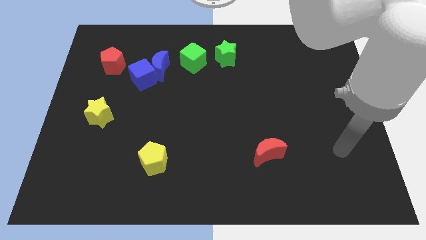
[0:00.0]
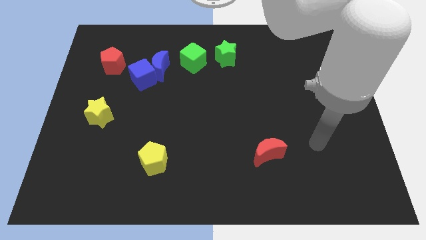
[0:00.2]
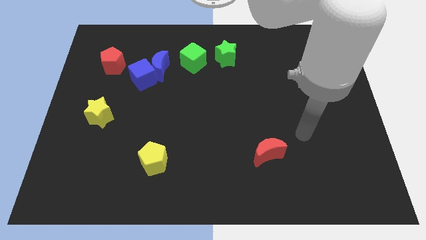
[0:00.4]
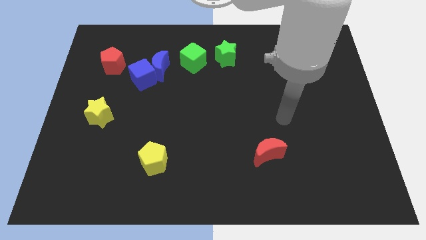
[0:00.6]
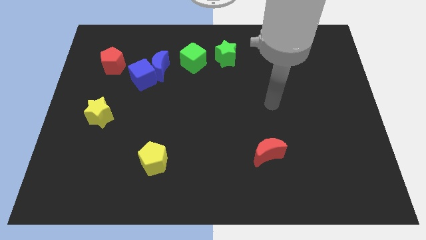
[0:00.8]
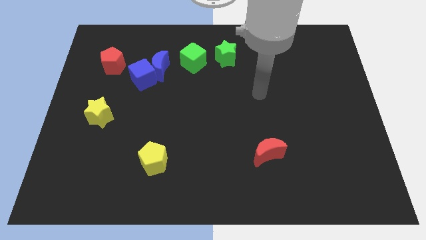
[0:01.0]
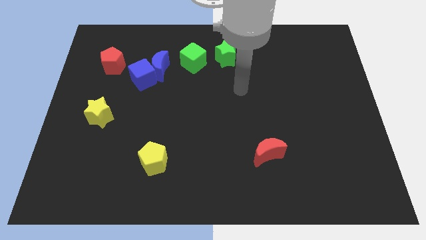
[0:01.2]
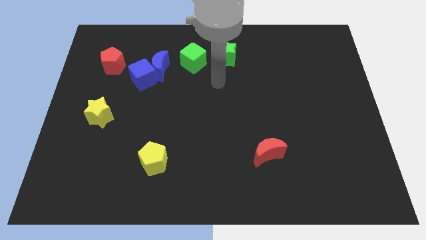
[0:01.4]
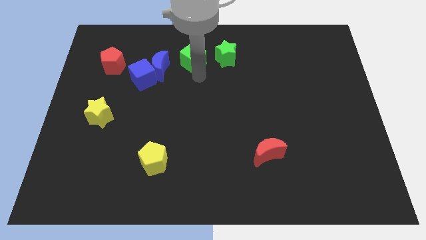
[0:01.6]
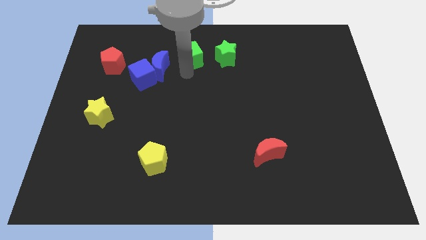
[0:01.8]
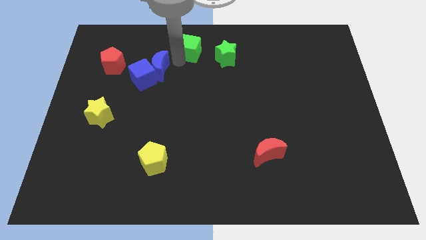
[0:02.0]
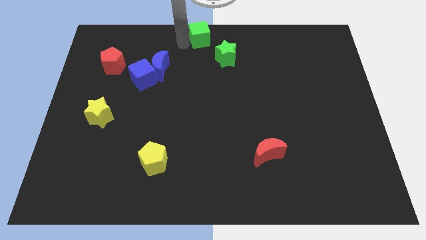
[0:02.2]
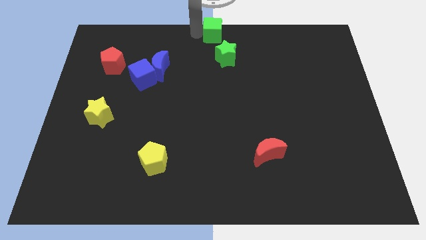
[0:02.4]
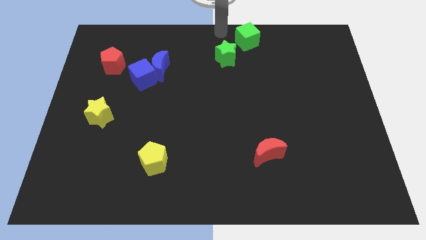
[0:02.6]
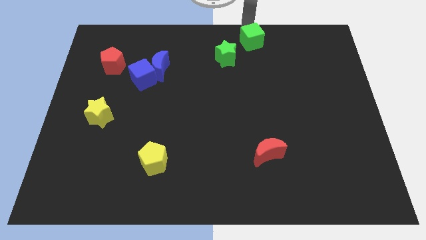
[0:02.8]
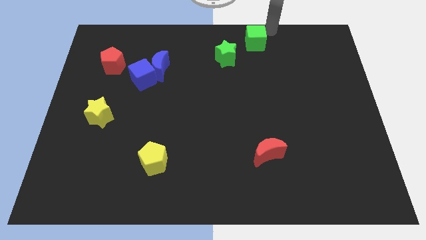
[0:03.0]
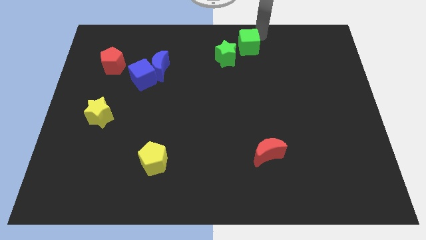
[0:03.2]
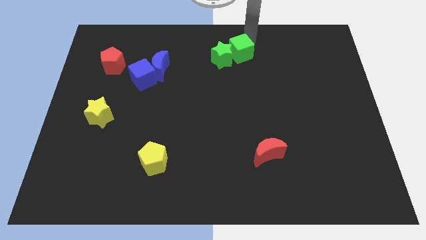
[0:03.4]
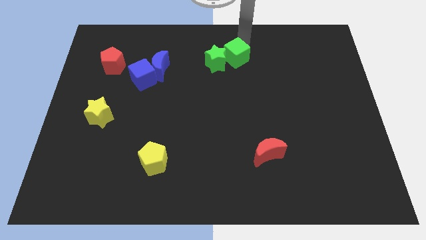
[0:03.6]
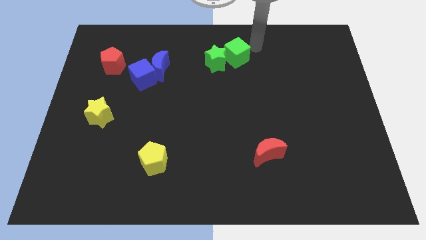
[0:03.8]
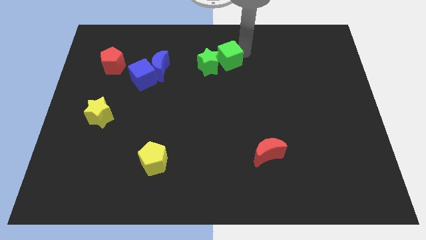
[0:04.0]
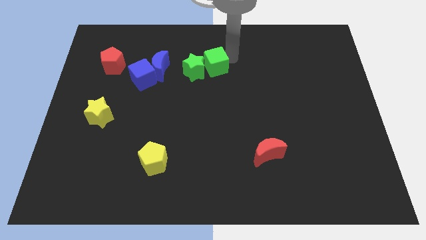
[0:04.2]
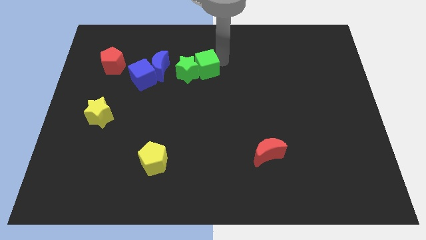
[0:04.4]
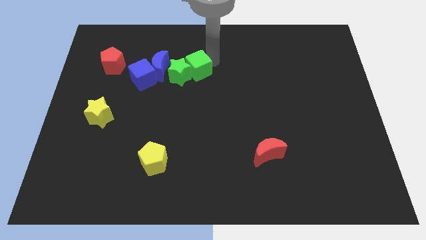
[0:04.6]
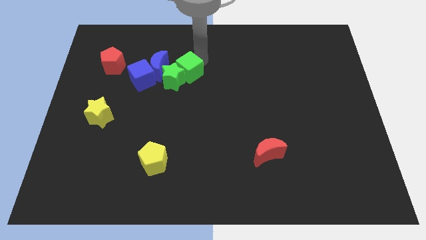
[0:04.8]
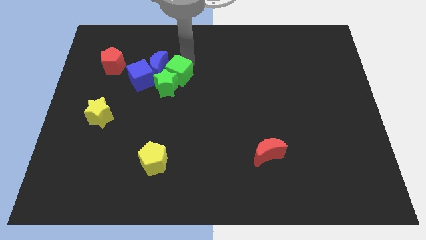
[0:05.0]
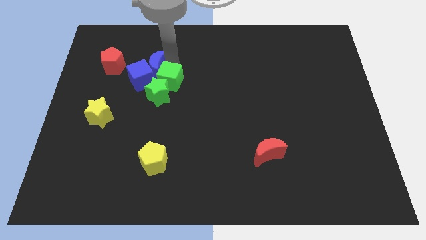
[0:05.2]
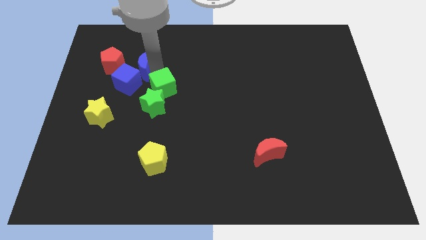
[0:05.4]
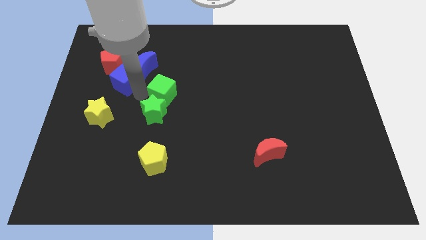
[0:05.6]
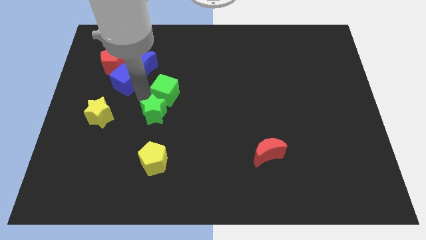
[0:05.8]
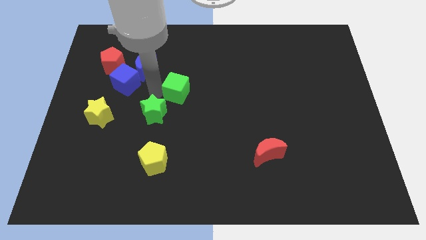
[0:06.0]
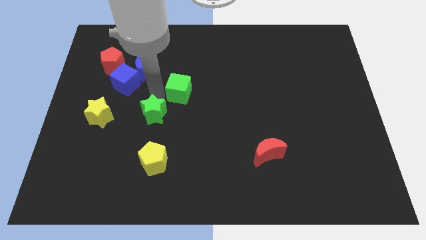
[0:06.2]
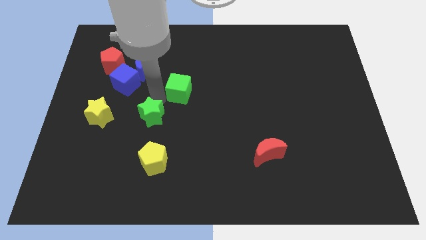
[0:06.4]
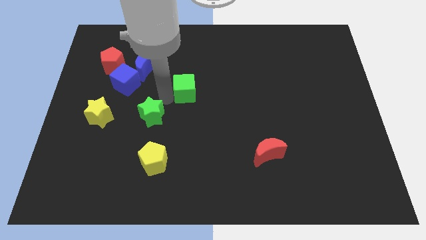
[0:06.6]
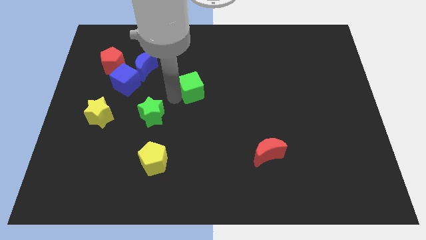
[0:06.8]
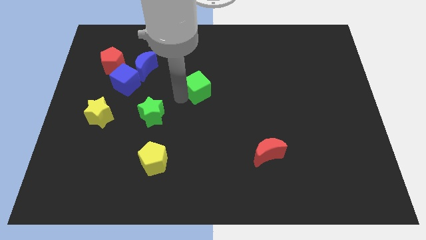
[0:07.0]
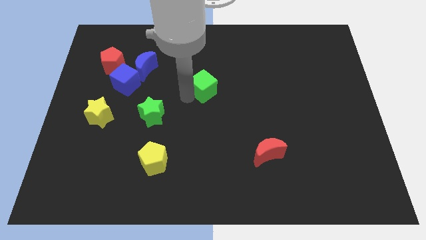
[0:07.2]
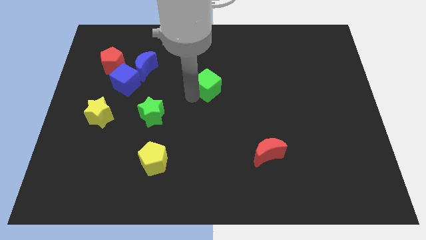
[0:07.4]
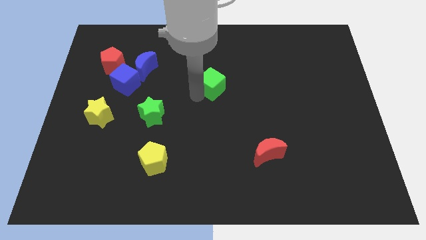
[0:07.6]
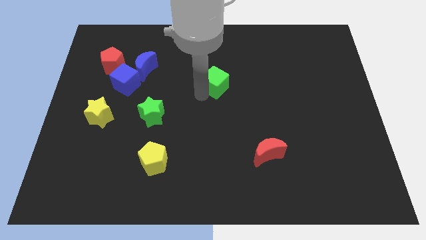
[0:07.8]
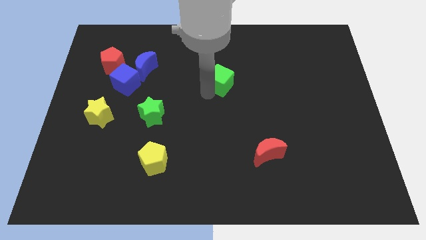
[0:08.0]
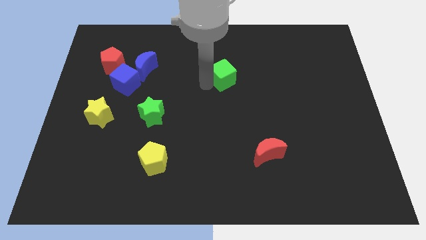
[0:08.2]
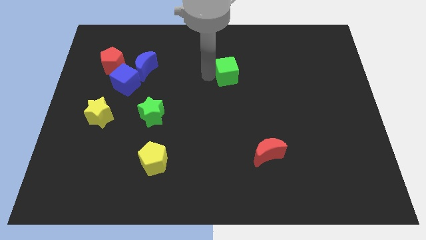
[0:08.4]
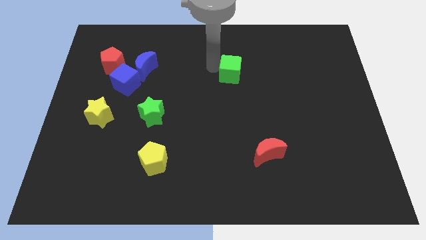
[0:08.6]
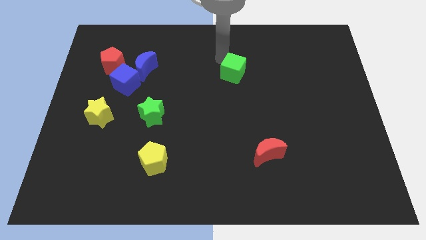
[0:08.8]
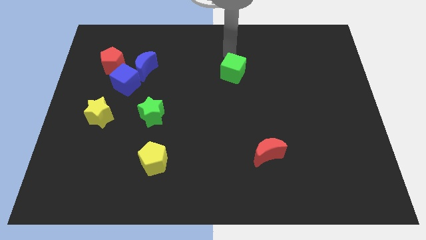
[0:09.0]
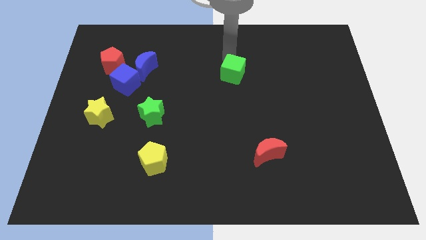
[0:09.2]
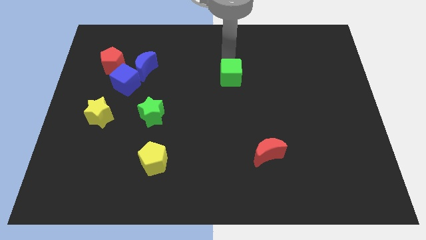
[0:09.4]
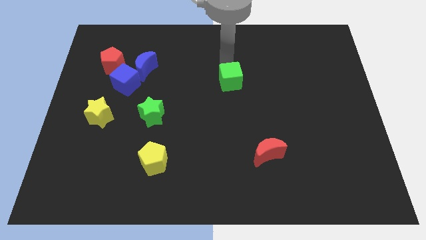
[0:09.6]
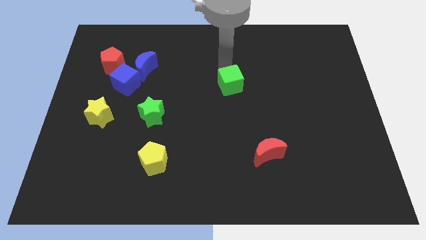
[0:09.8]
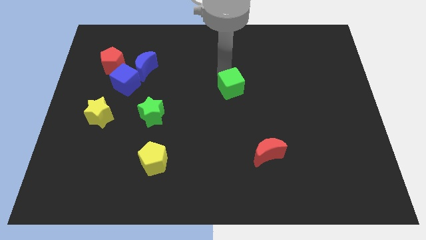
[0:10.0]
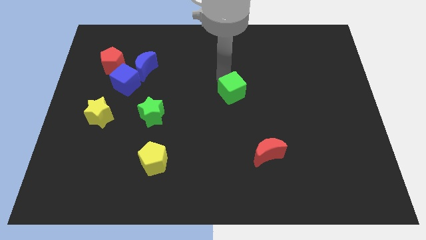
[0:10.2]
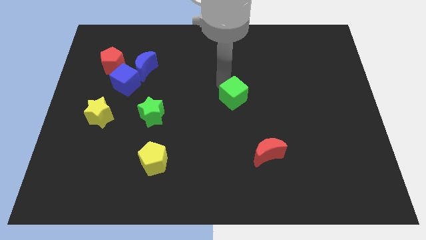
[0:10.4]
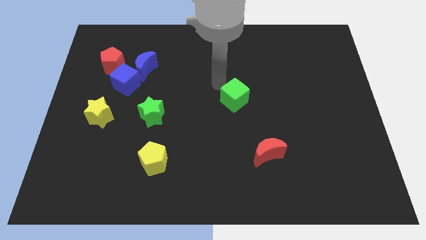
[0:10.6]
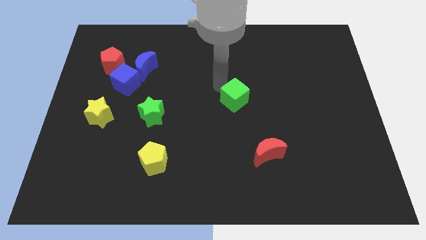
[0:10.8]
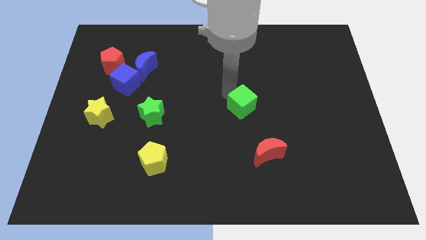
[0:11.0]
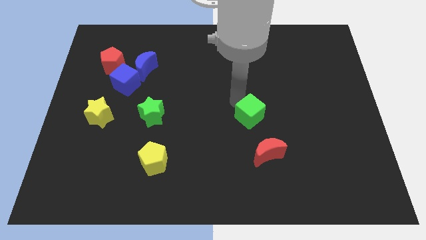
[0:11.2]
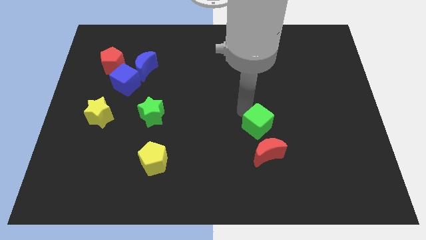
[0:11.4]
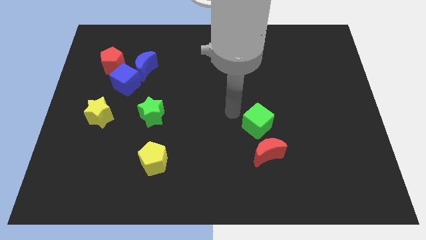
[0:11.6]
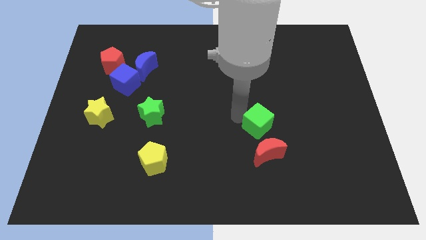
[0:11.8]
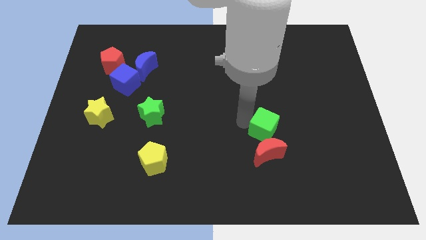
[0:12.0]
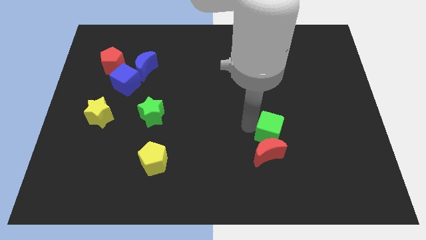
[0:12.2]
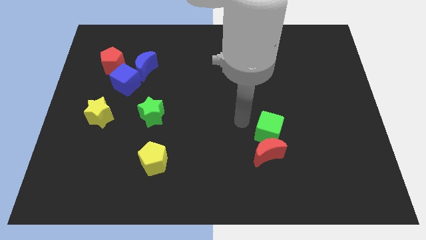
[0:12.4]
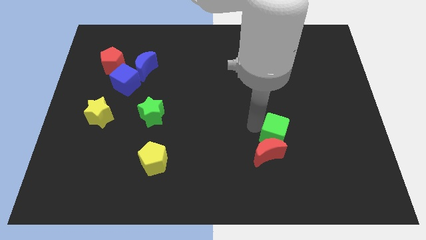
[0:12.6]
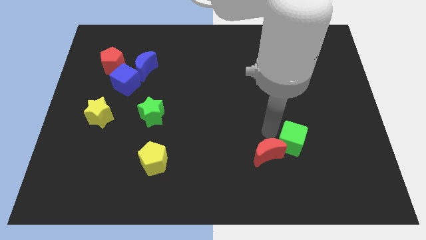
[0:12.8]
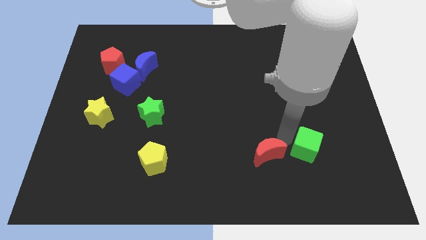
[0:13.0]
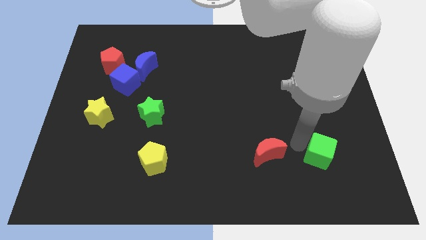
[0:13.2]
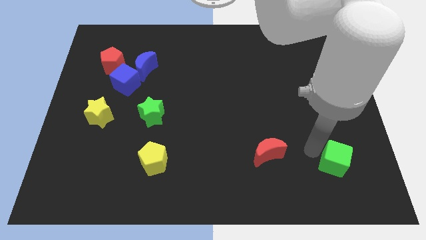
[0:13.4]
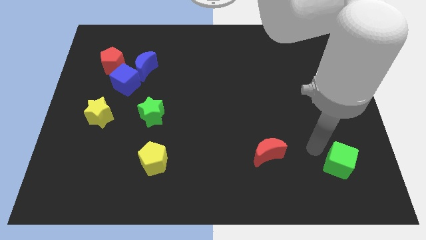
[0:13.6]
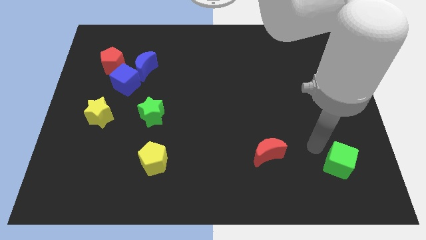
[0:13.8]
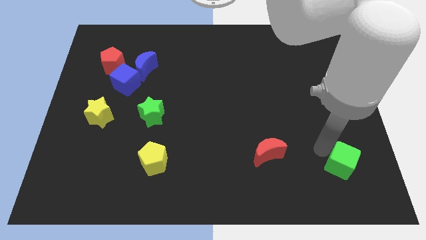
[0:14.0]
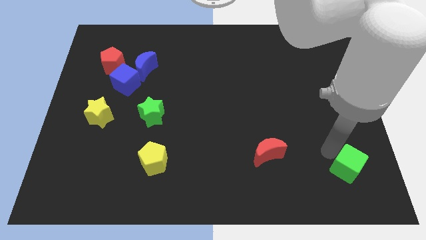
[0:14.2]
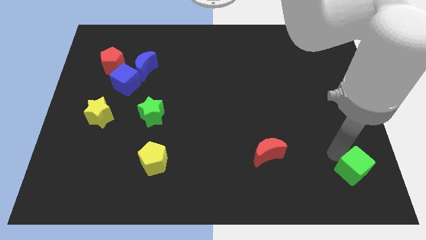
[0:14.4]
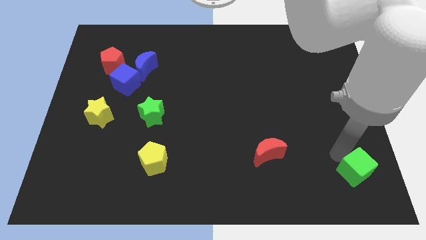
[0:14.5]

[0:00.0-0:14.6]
push the green cube to the bottom right
